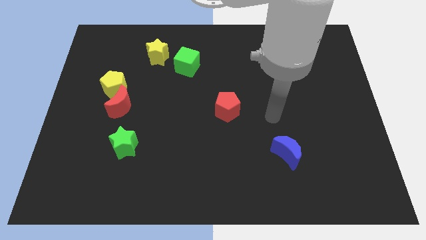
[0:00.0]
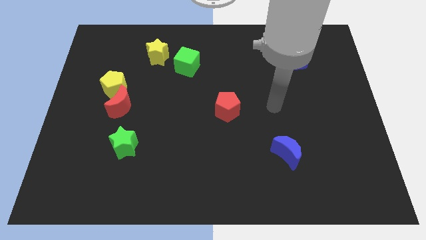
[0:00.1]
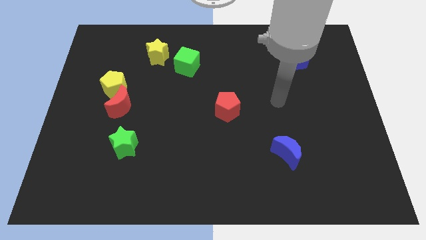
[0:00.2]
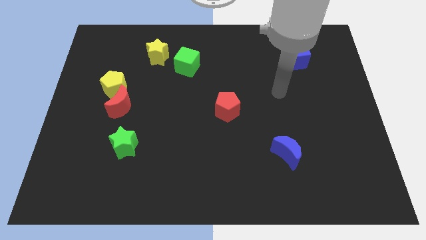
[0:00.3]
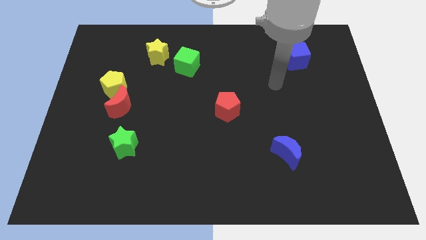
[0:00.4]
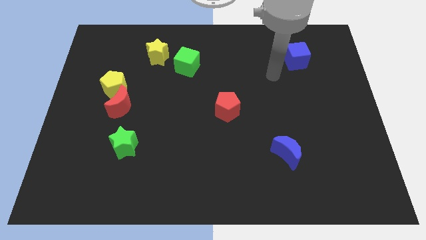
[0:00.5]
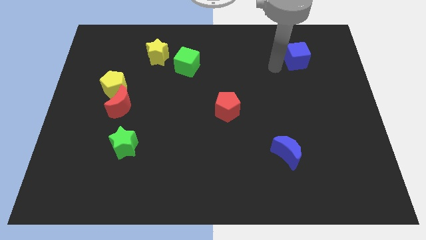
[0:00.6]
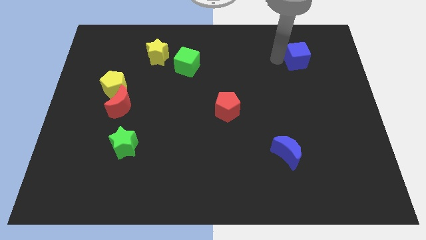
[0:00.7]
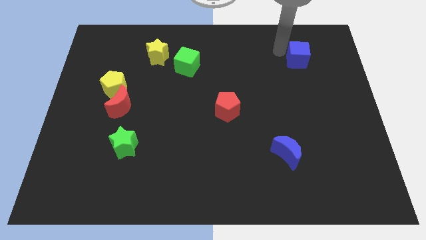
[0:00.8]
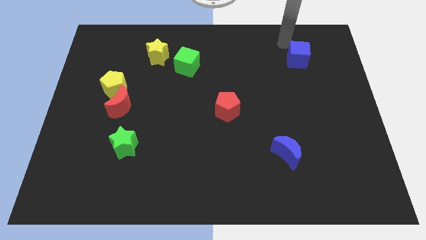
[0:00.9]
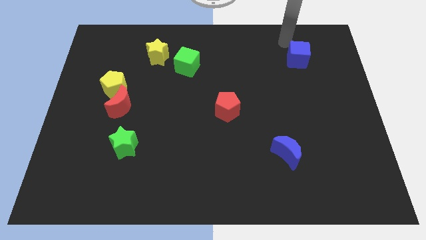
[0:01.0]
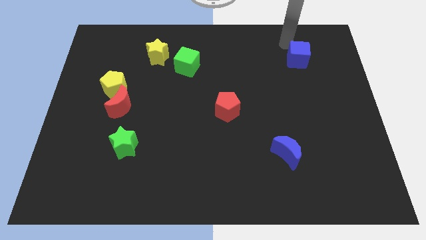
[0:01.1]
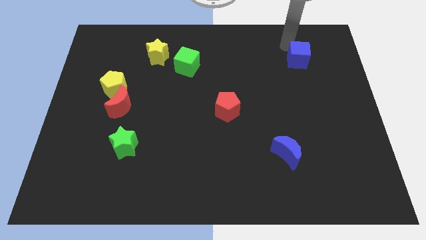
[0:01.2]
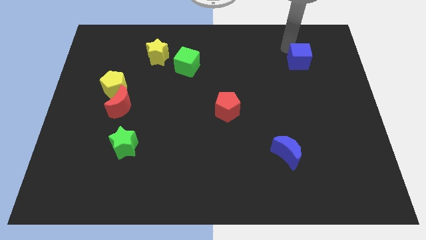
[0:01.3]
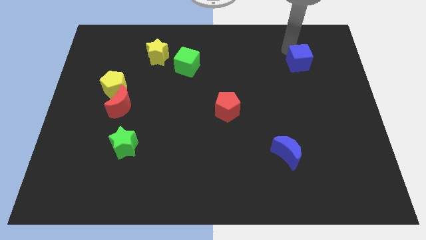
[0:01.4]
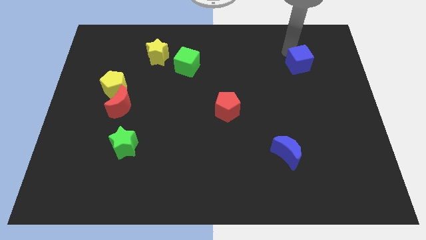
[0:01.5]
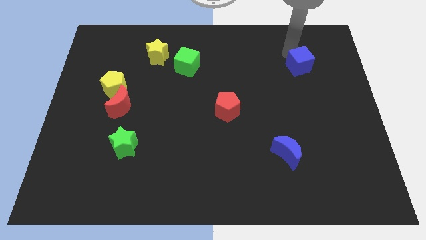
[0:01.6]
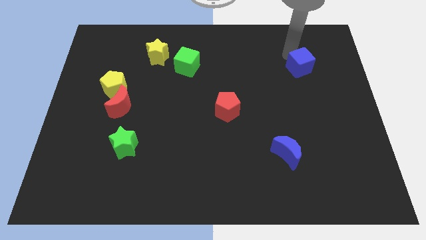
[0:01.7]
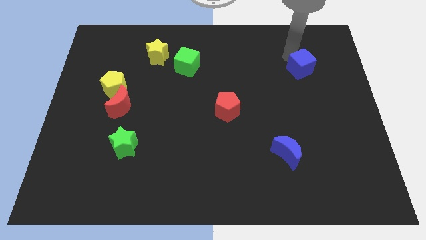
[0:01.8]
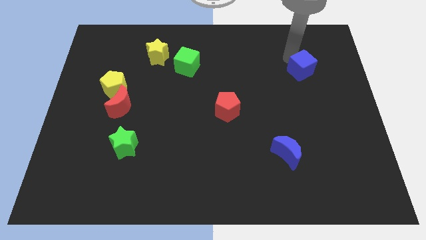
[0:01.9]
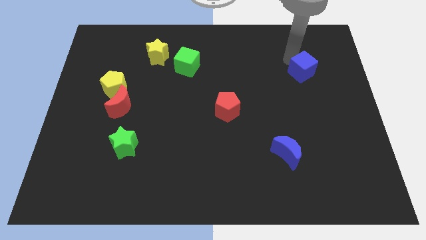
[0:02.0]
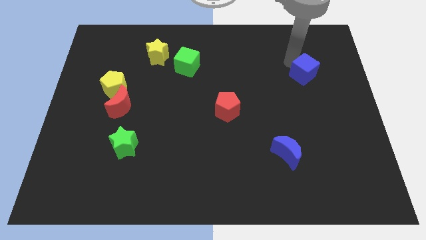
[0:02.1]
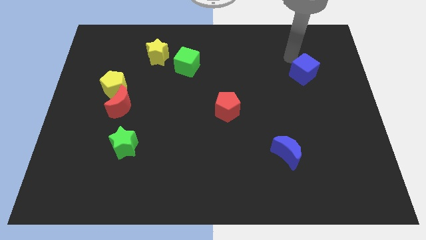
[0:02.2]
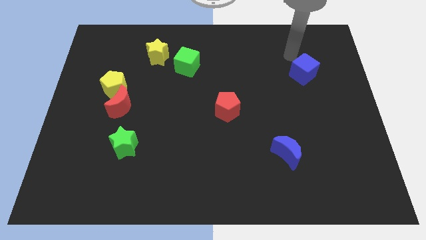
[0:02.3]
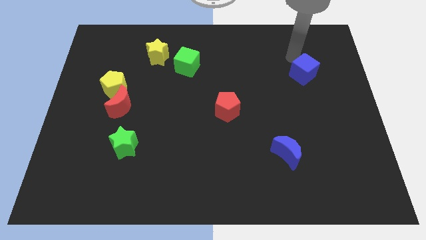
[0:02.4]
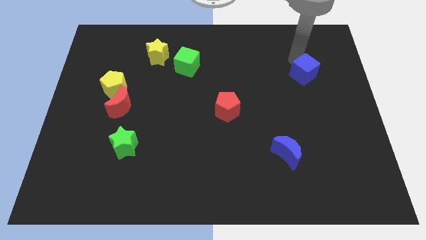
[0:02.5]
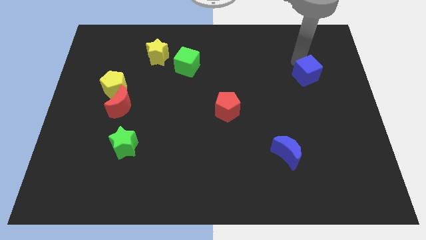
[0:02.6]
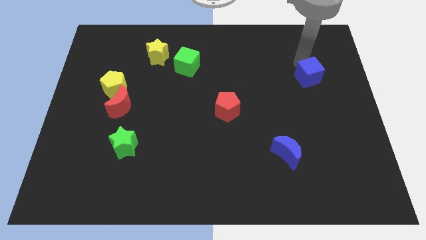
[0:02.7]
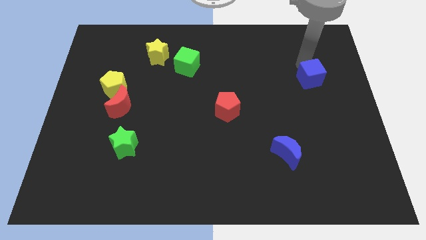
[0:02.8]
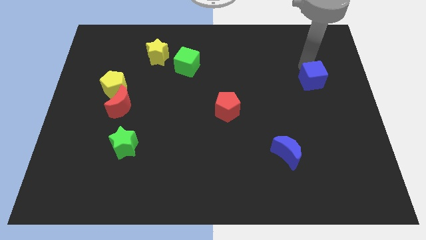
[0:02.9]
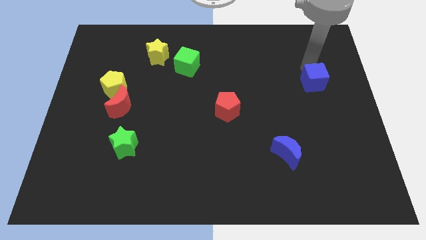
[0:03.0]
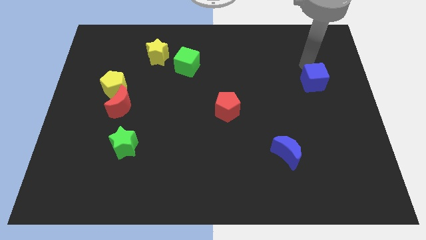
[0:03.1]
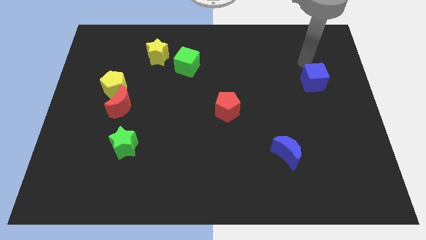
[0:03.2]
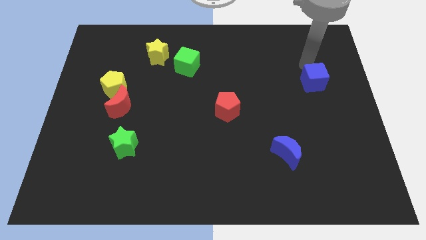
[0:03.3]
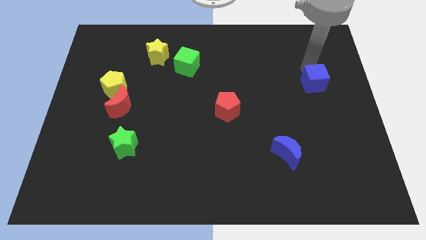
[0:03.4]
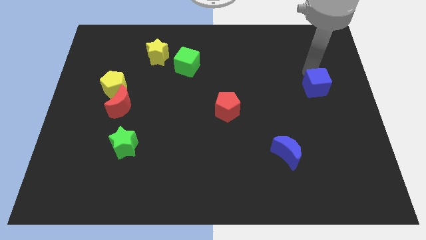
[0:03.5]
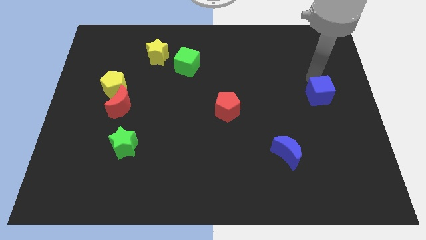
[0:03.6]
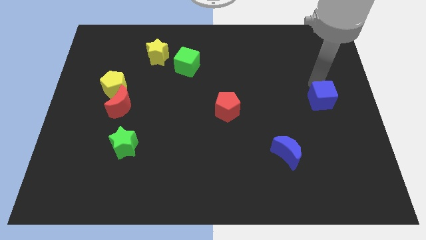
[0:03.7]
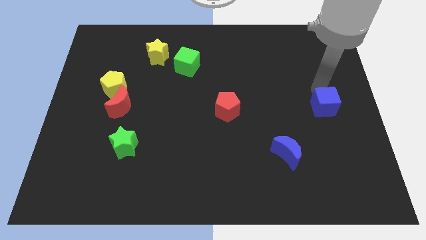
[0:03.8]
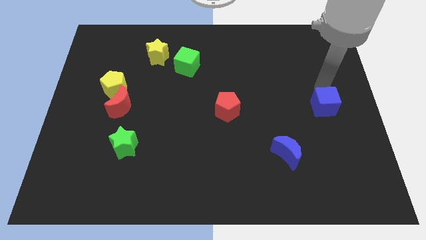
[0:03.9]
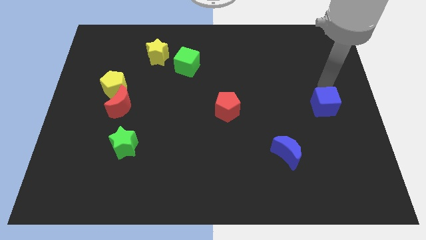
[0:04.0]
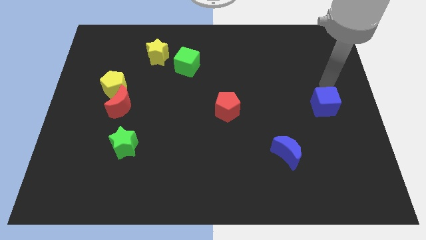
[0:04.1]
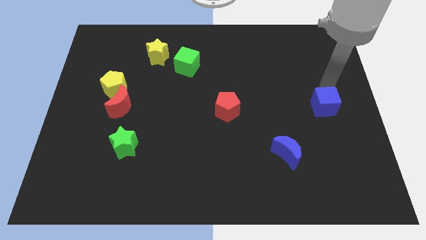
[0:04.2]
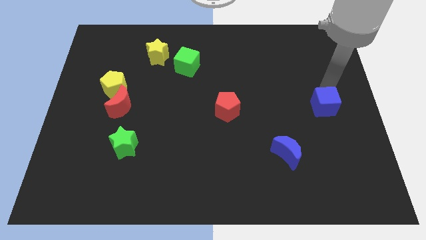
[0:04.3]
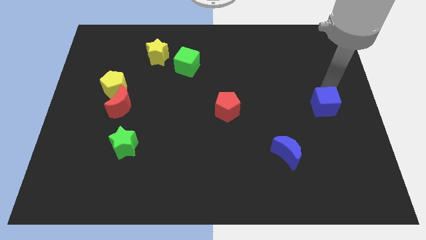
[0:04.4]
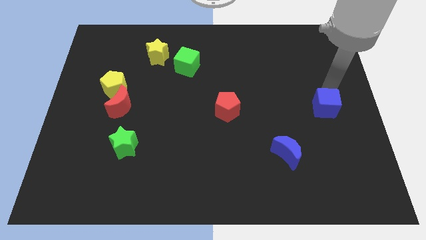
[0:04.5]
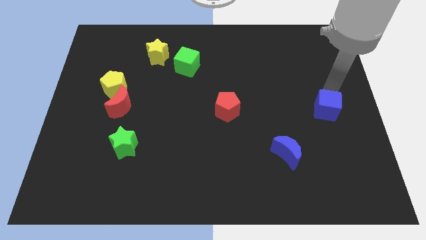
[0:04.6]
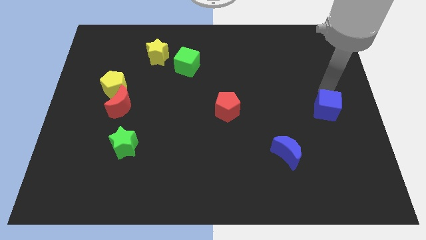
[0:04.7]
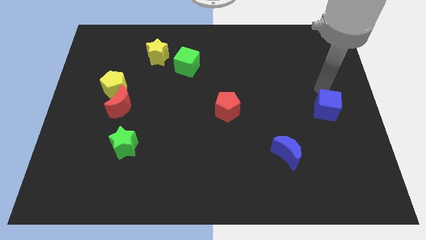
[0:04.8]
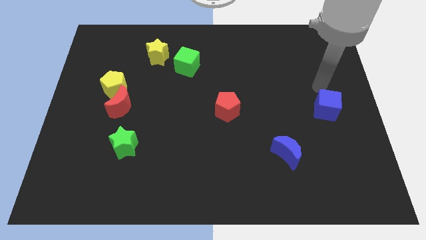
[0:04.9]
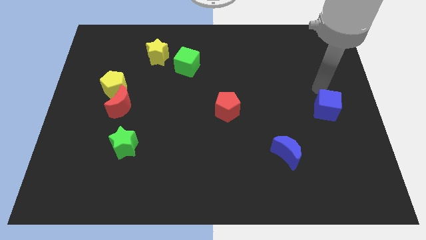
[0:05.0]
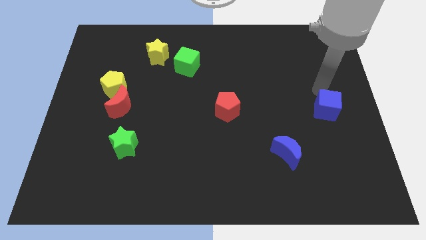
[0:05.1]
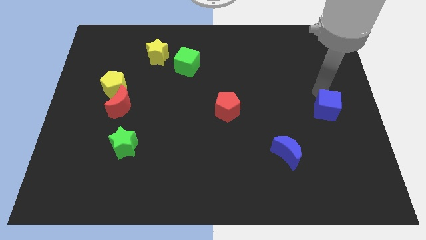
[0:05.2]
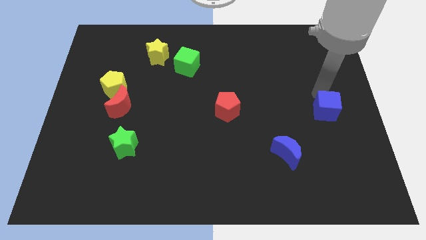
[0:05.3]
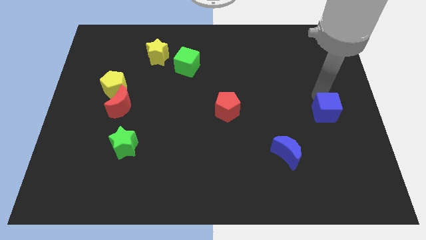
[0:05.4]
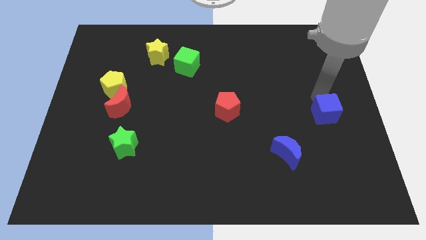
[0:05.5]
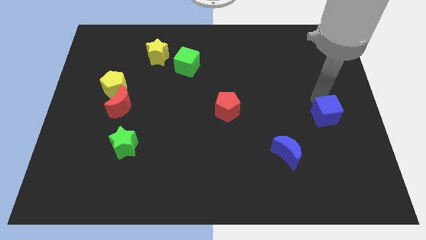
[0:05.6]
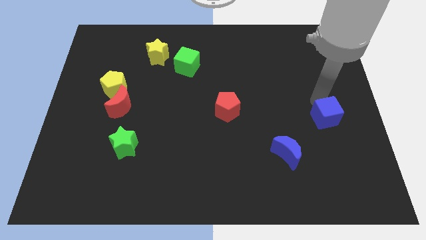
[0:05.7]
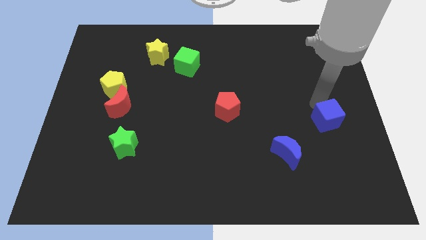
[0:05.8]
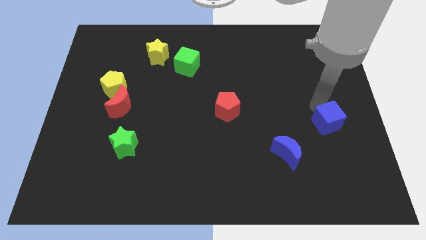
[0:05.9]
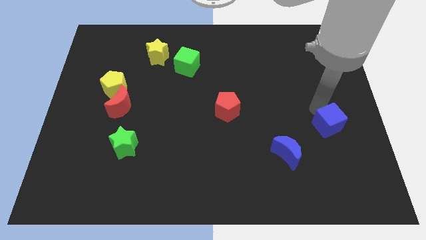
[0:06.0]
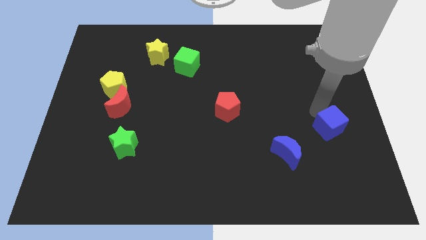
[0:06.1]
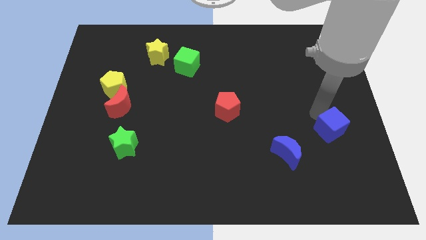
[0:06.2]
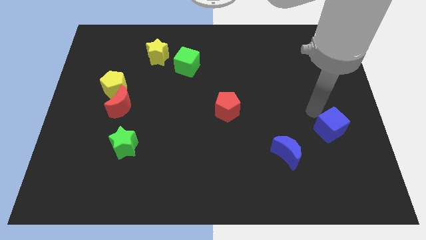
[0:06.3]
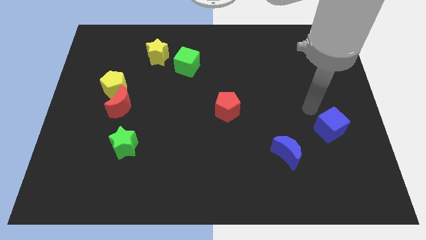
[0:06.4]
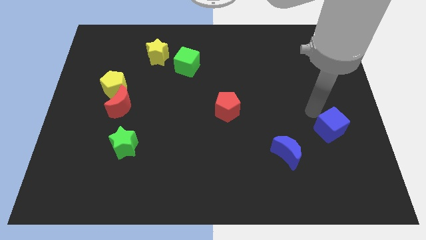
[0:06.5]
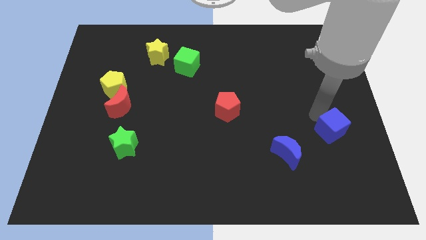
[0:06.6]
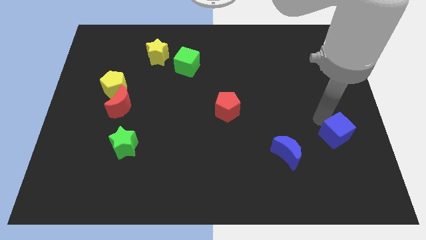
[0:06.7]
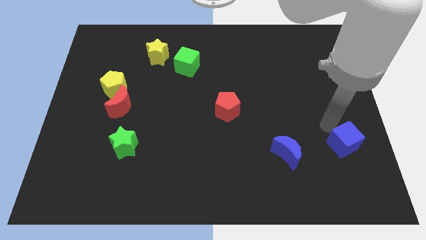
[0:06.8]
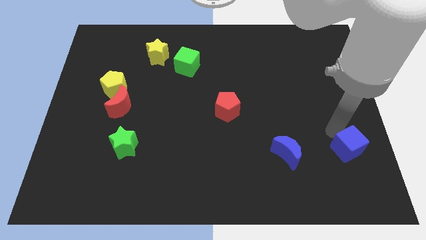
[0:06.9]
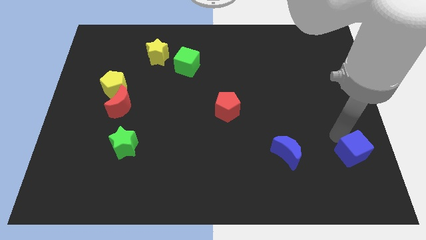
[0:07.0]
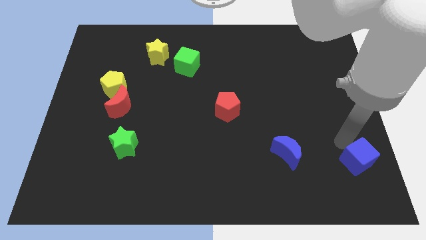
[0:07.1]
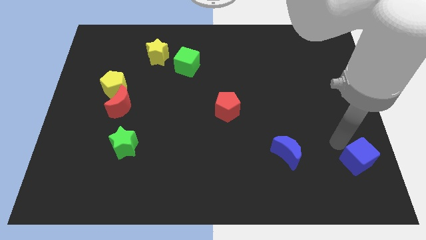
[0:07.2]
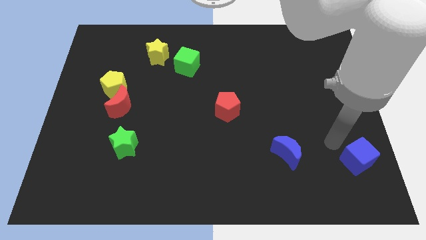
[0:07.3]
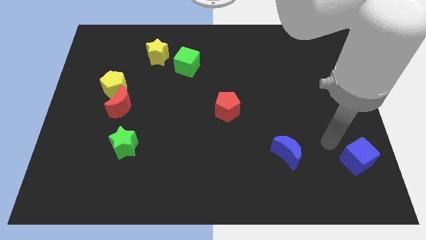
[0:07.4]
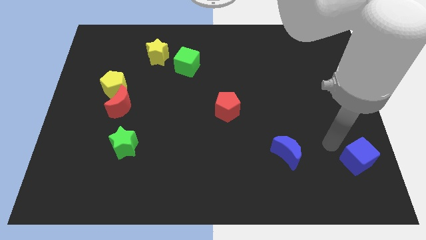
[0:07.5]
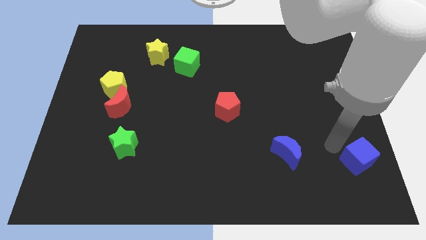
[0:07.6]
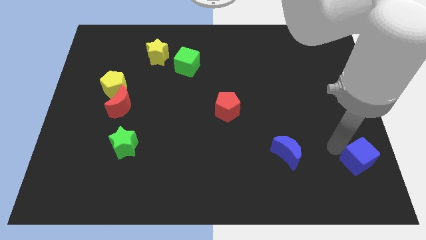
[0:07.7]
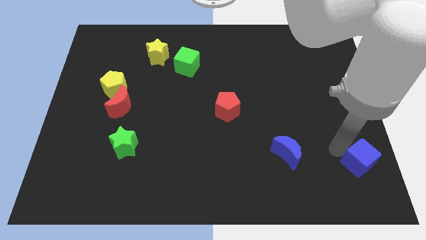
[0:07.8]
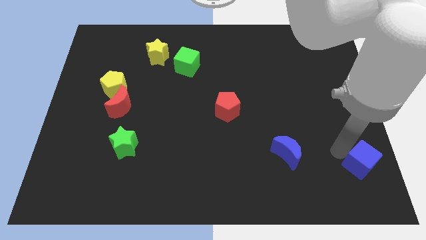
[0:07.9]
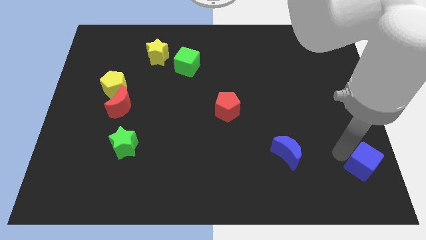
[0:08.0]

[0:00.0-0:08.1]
push the blue cube to the bottom right of the board
